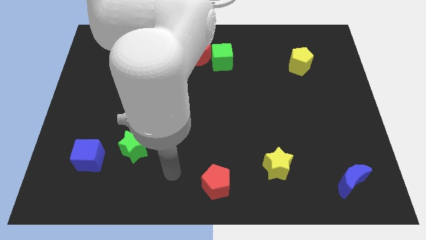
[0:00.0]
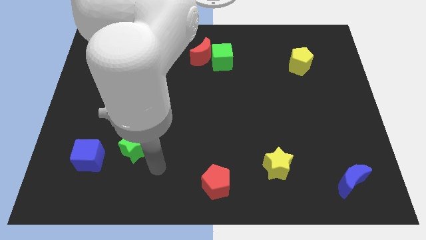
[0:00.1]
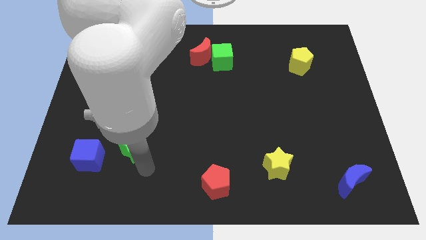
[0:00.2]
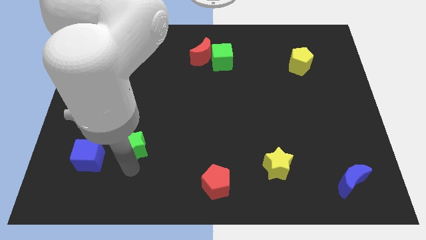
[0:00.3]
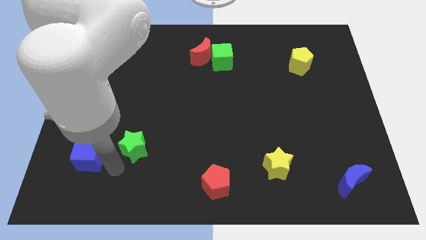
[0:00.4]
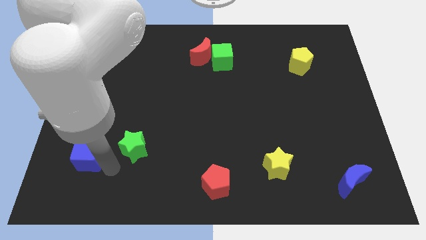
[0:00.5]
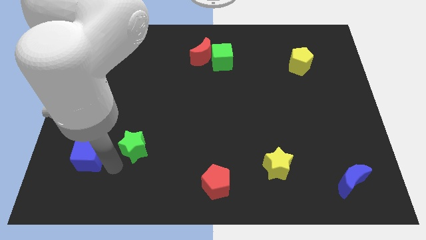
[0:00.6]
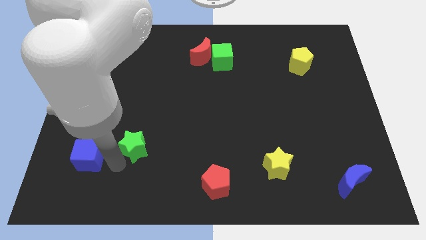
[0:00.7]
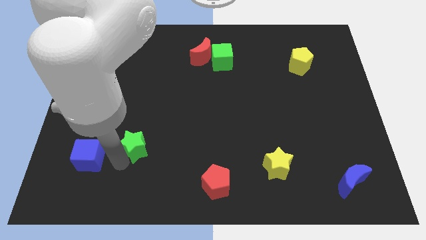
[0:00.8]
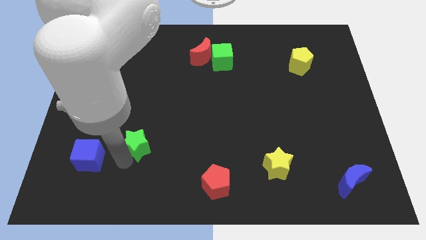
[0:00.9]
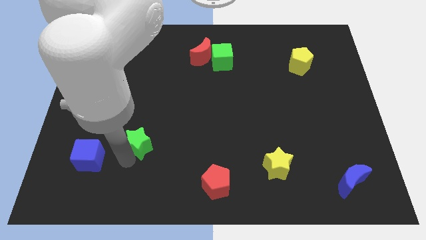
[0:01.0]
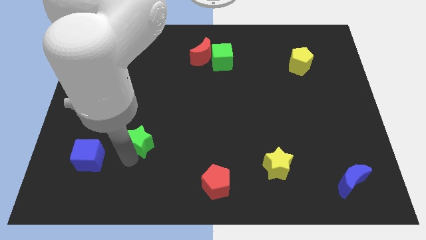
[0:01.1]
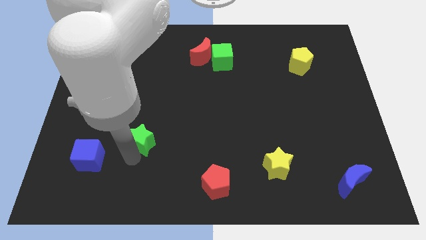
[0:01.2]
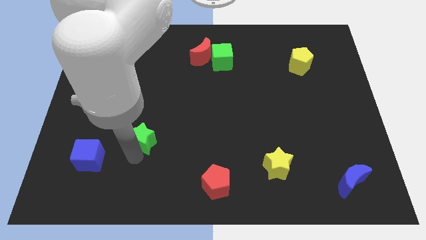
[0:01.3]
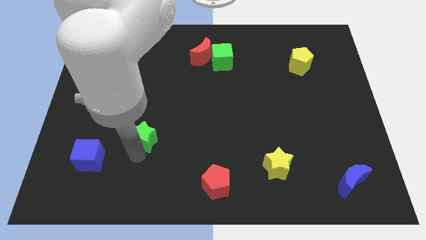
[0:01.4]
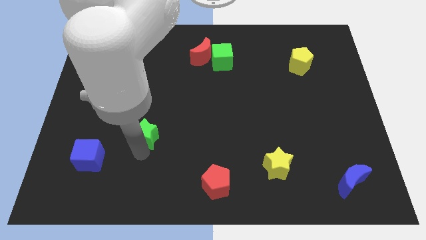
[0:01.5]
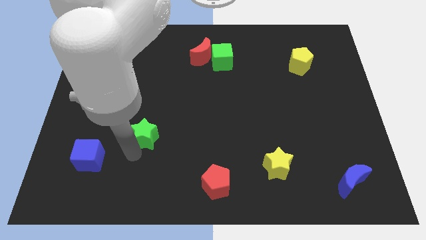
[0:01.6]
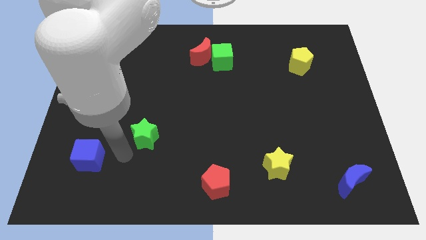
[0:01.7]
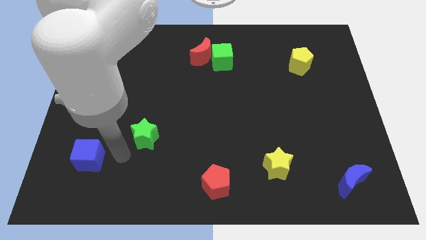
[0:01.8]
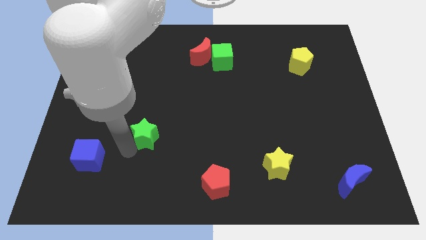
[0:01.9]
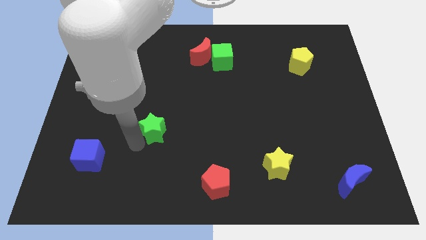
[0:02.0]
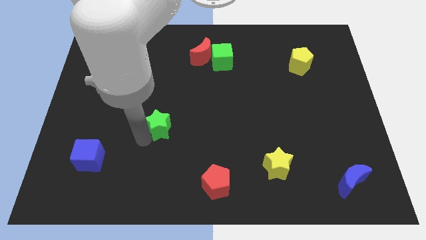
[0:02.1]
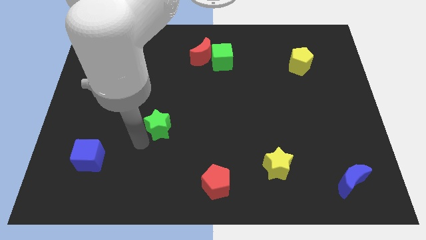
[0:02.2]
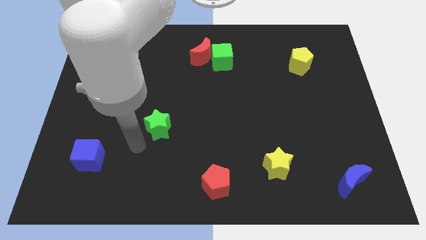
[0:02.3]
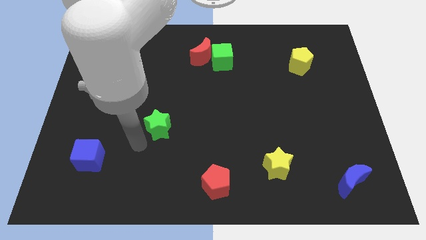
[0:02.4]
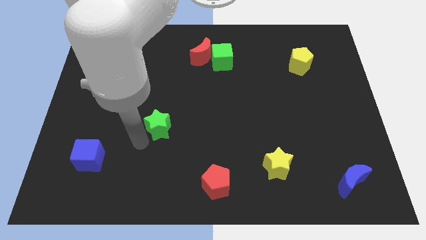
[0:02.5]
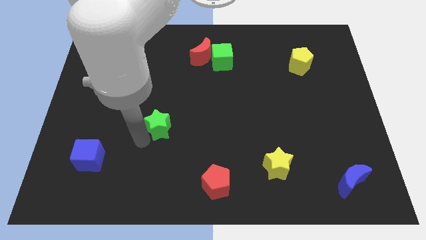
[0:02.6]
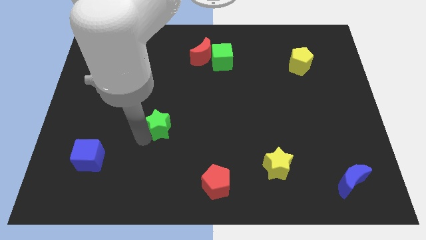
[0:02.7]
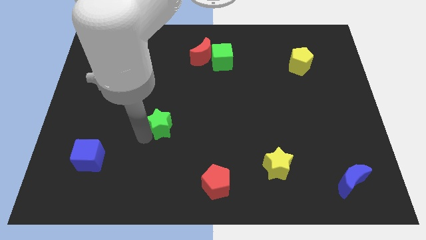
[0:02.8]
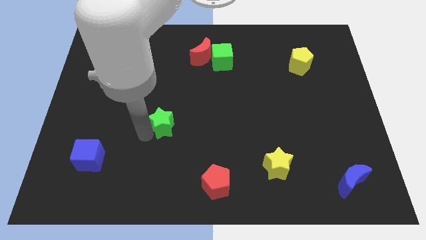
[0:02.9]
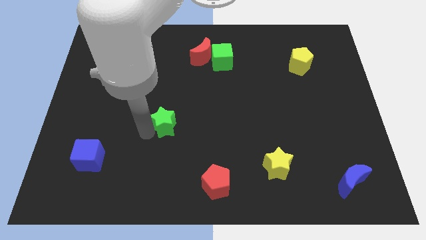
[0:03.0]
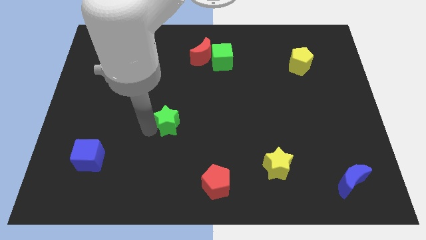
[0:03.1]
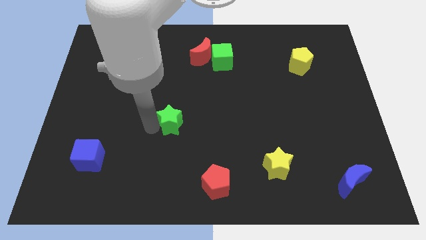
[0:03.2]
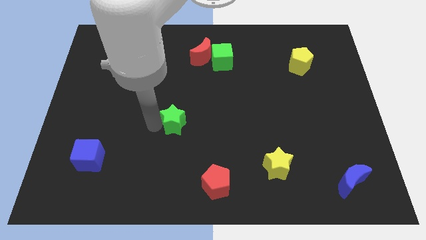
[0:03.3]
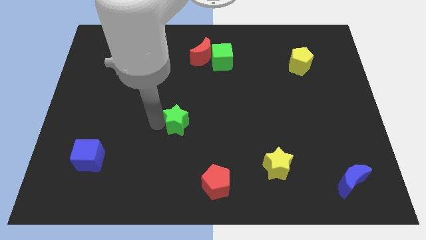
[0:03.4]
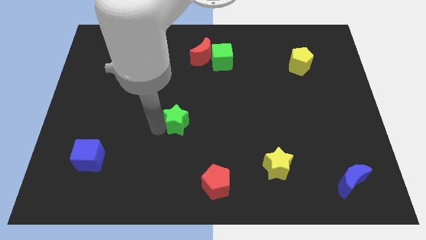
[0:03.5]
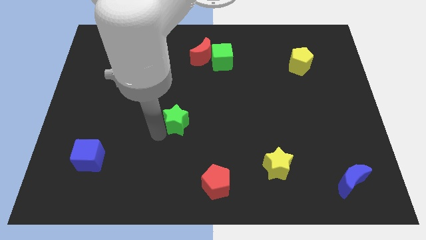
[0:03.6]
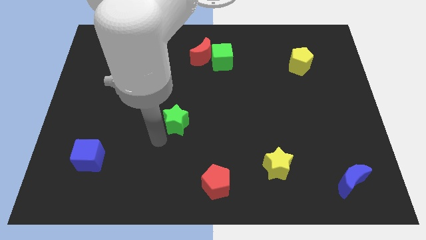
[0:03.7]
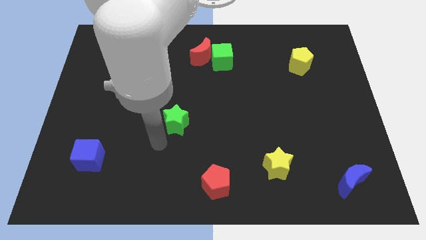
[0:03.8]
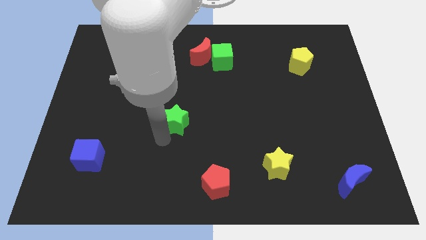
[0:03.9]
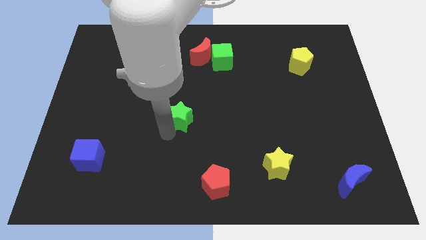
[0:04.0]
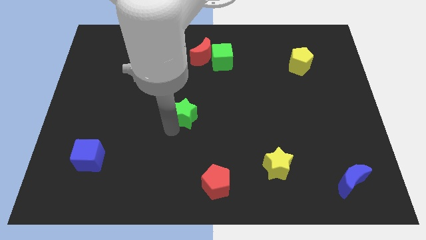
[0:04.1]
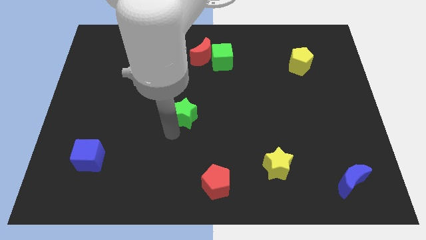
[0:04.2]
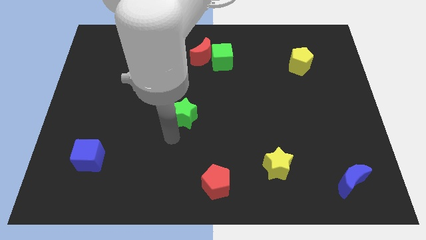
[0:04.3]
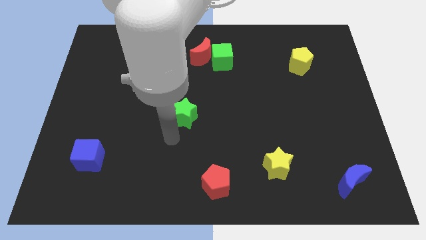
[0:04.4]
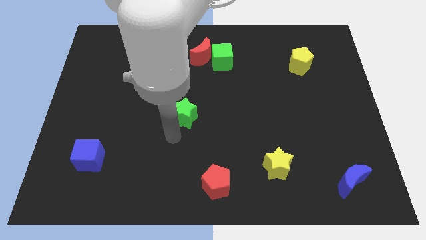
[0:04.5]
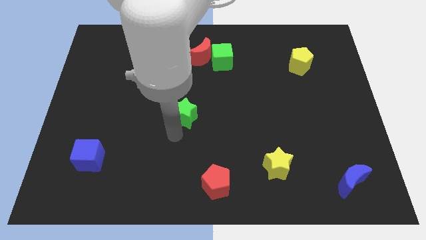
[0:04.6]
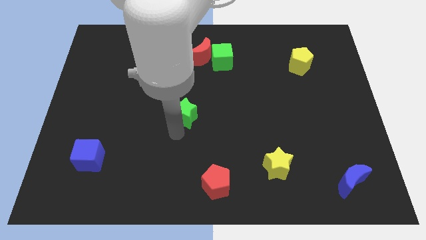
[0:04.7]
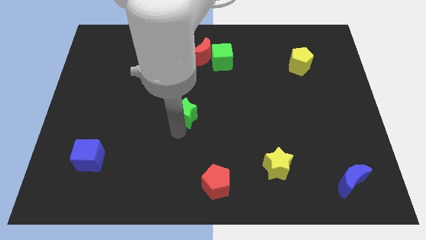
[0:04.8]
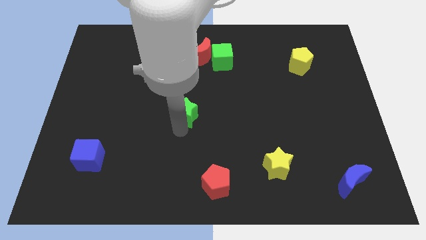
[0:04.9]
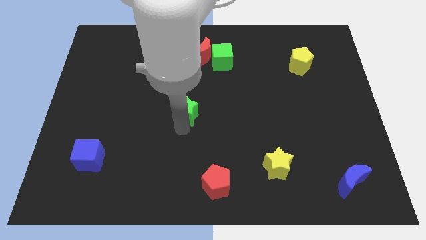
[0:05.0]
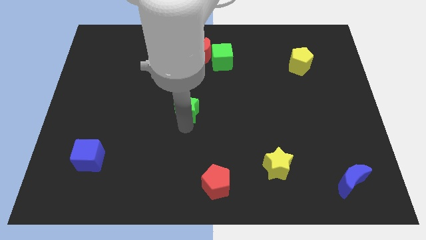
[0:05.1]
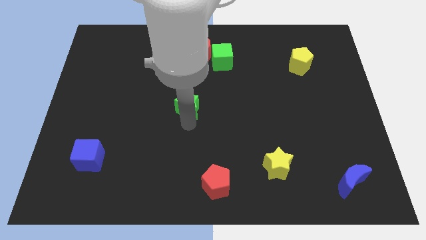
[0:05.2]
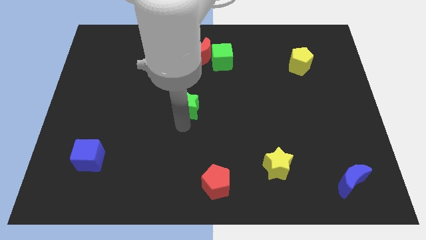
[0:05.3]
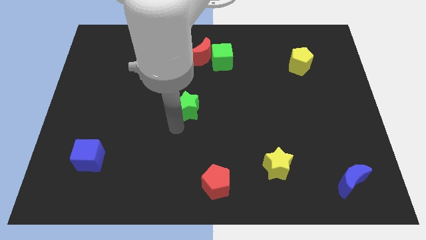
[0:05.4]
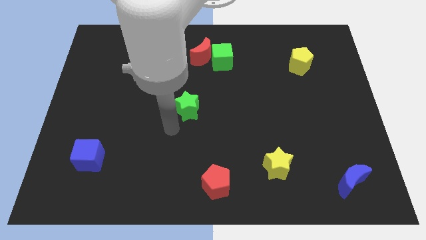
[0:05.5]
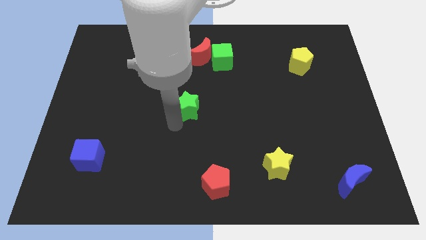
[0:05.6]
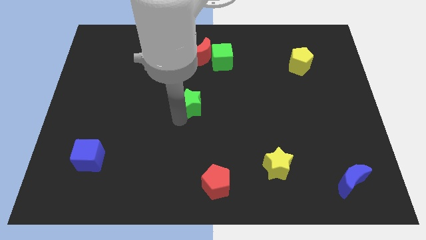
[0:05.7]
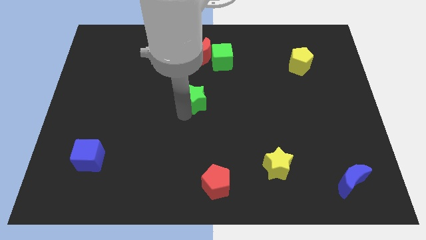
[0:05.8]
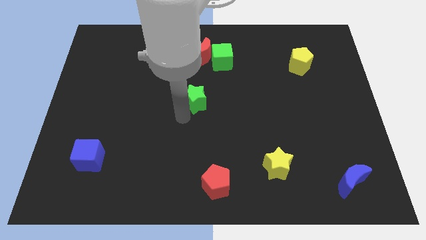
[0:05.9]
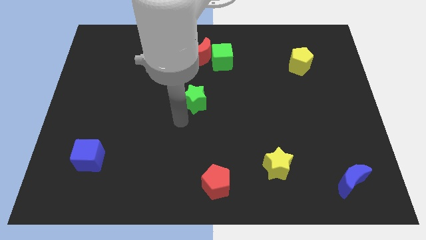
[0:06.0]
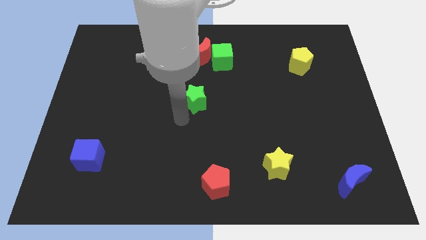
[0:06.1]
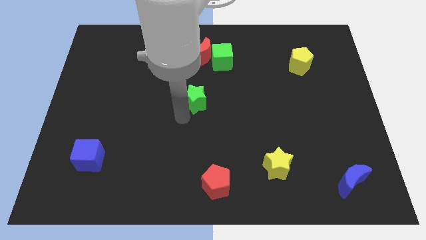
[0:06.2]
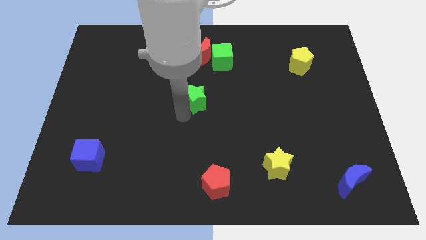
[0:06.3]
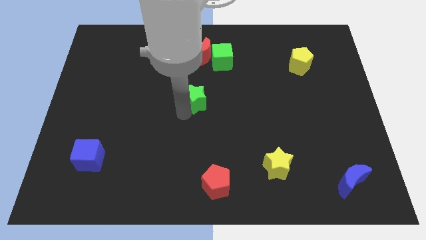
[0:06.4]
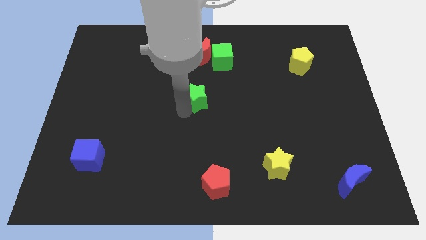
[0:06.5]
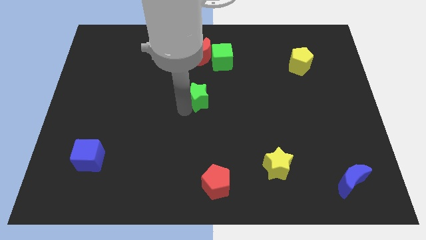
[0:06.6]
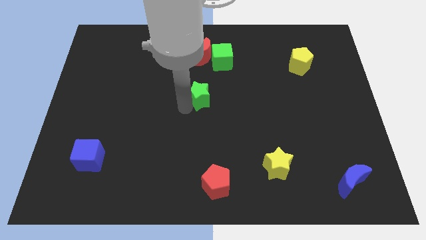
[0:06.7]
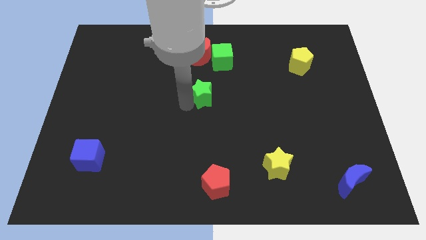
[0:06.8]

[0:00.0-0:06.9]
move the green star upwards and right

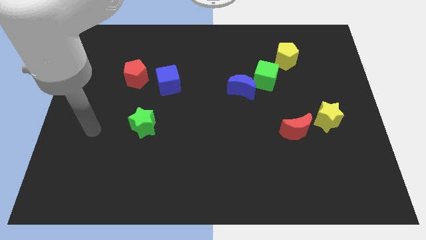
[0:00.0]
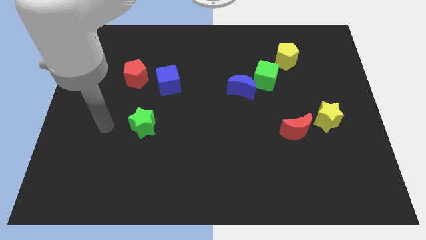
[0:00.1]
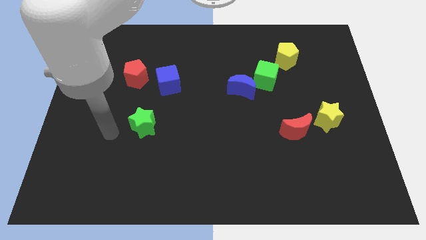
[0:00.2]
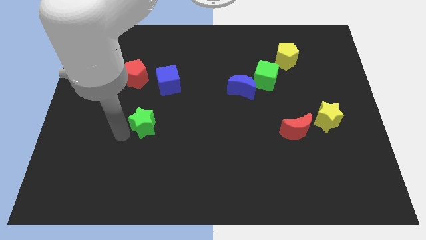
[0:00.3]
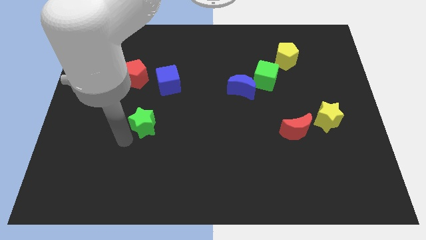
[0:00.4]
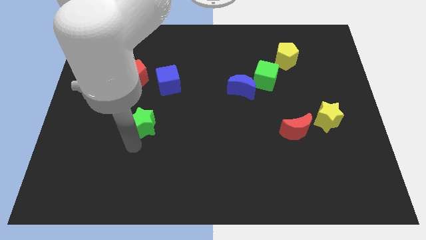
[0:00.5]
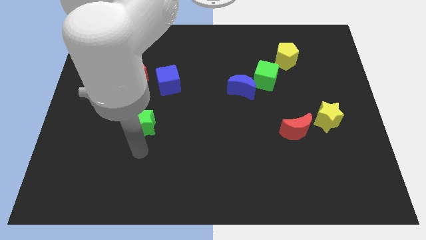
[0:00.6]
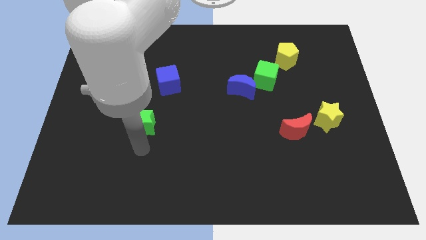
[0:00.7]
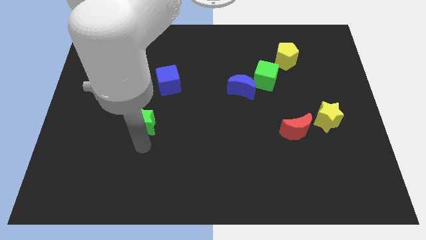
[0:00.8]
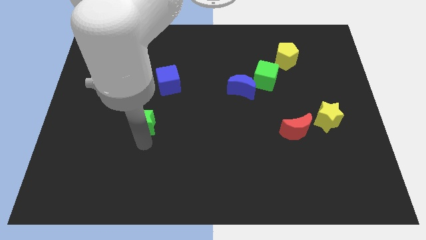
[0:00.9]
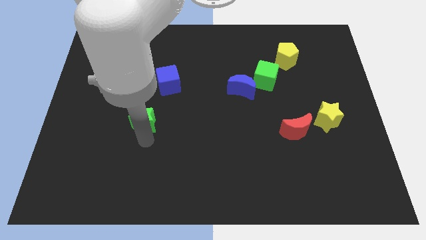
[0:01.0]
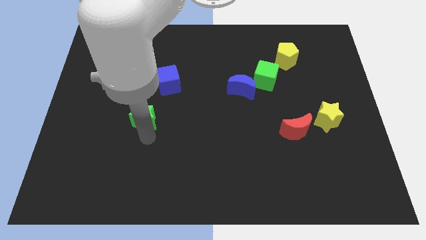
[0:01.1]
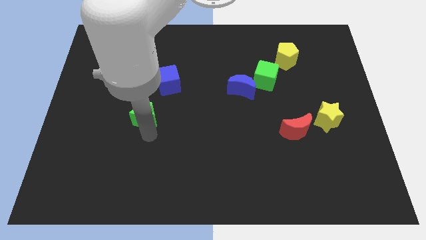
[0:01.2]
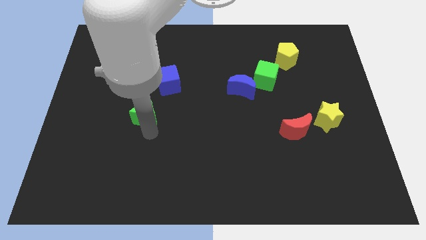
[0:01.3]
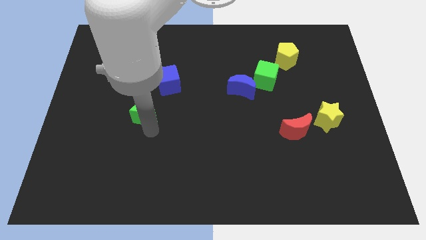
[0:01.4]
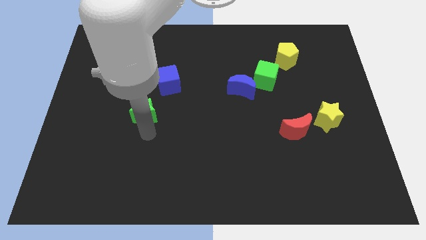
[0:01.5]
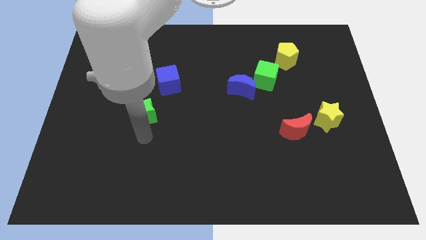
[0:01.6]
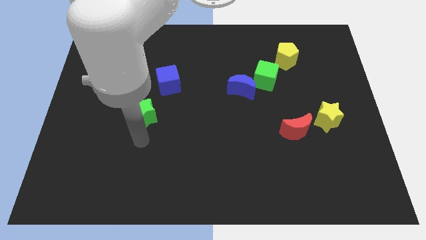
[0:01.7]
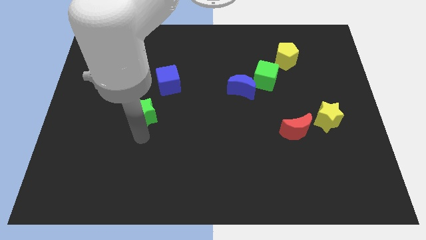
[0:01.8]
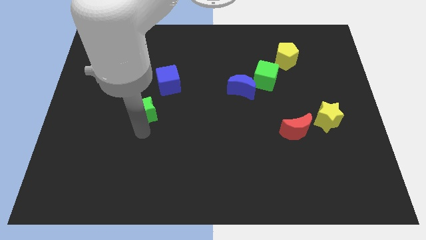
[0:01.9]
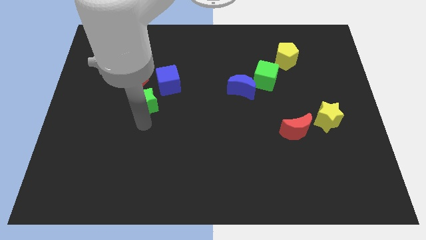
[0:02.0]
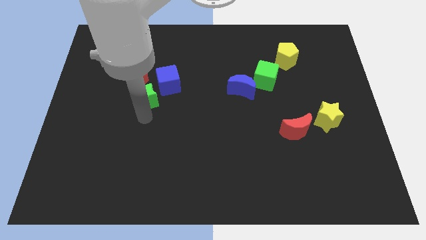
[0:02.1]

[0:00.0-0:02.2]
move the green star a bit upwards
